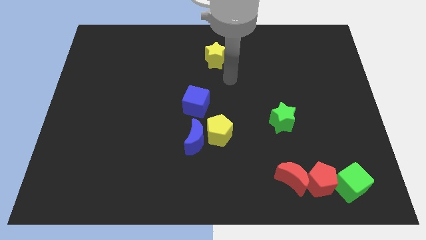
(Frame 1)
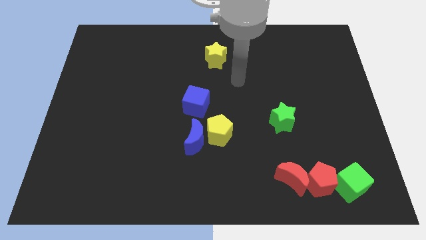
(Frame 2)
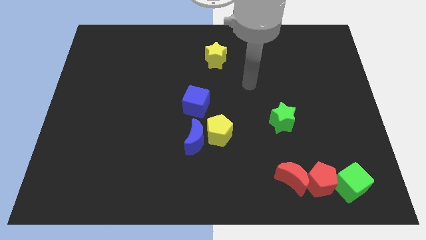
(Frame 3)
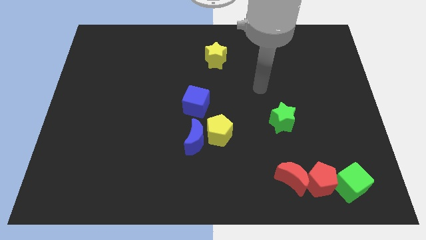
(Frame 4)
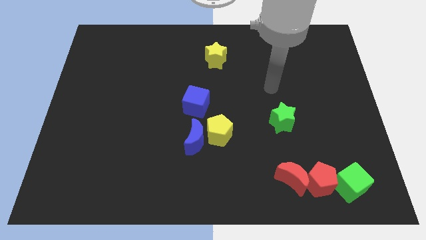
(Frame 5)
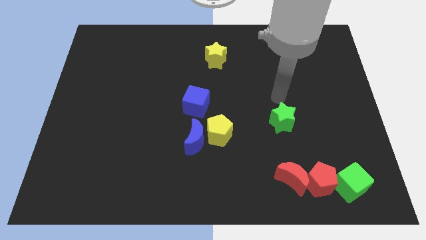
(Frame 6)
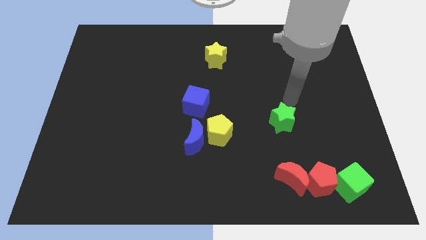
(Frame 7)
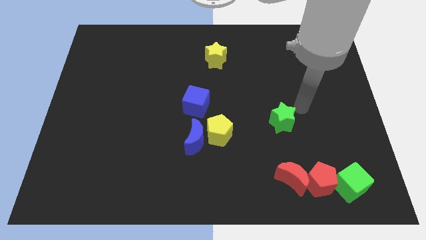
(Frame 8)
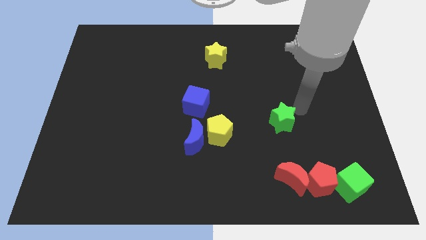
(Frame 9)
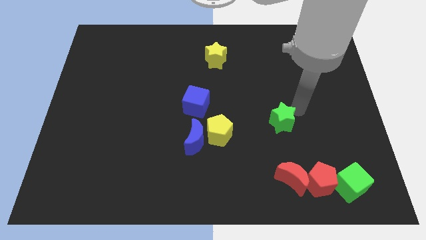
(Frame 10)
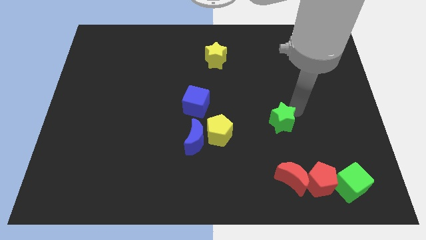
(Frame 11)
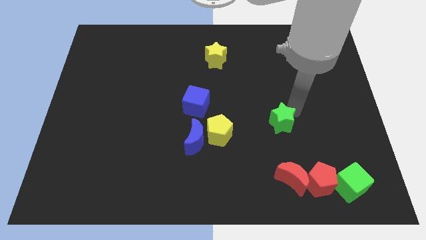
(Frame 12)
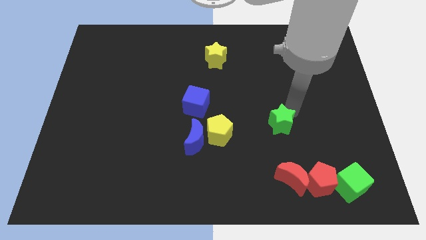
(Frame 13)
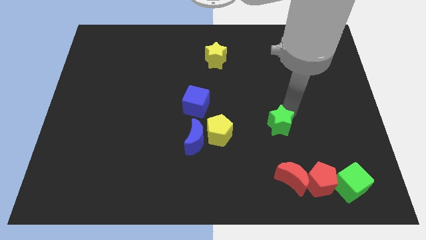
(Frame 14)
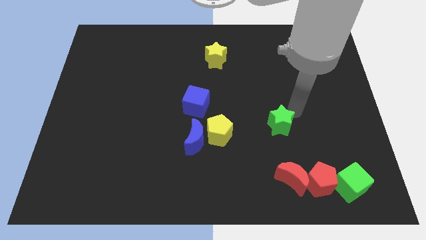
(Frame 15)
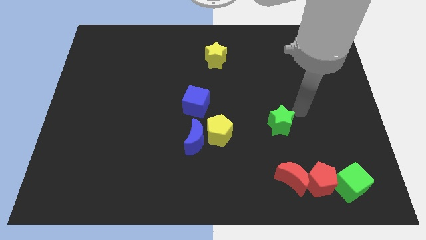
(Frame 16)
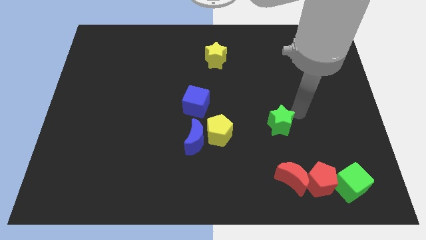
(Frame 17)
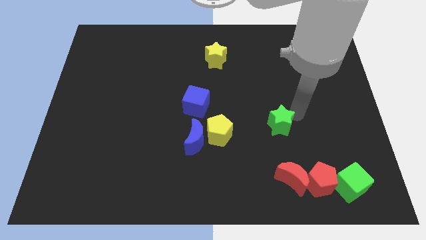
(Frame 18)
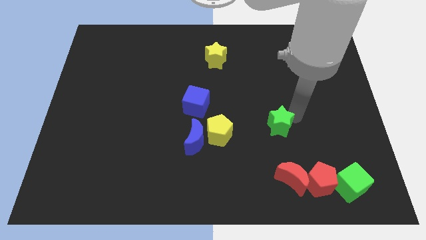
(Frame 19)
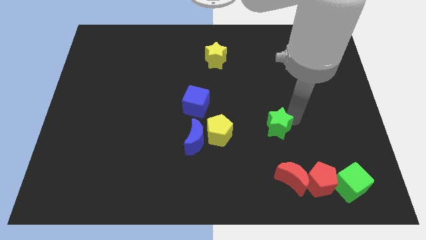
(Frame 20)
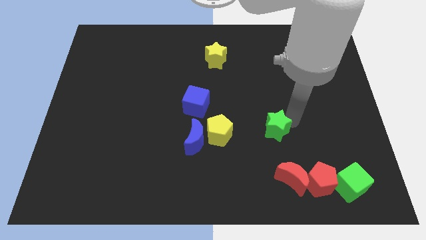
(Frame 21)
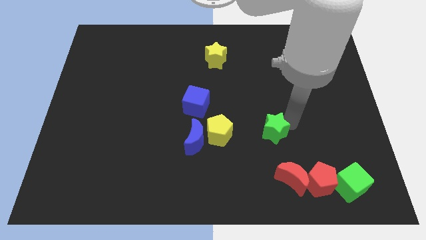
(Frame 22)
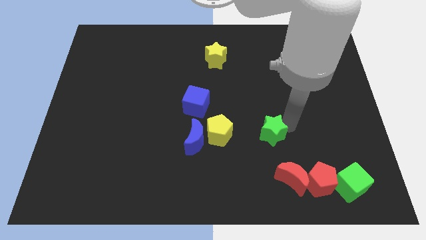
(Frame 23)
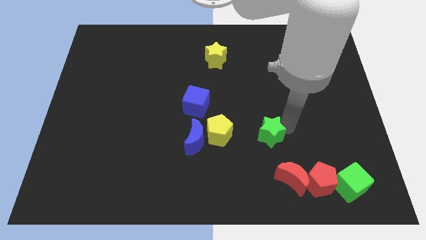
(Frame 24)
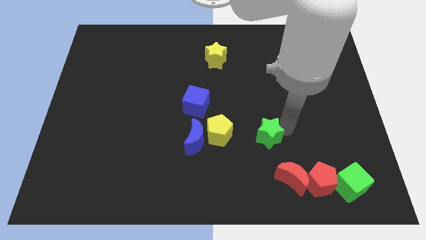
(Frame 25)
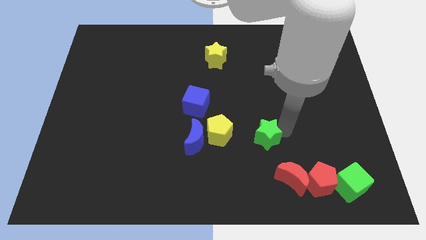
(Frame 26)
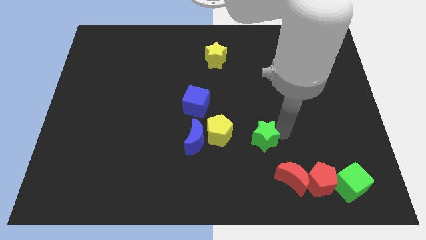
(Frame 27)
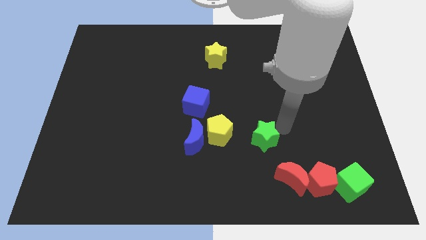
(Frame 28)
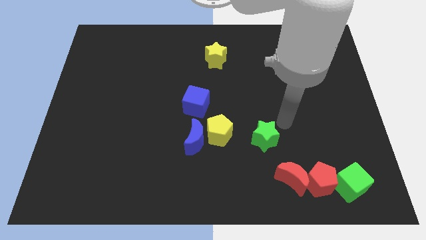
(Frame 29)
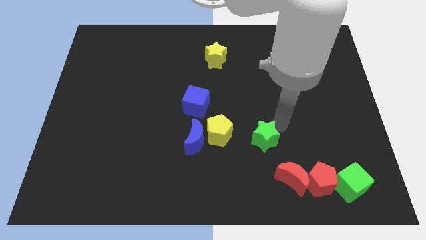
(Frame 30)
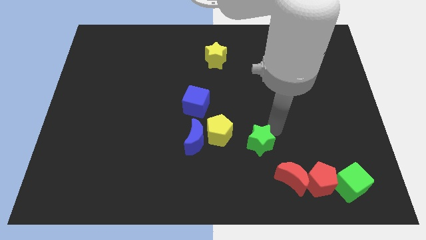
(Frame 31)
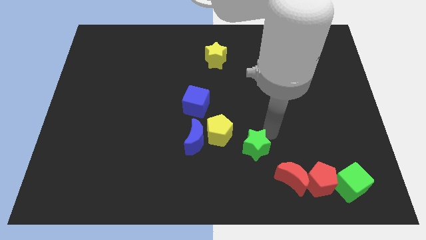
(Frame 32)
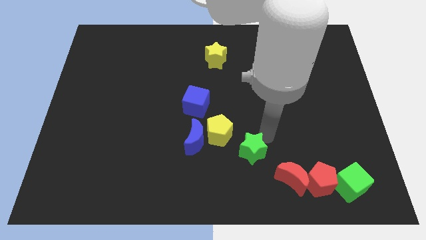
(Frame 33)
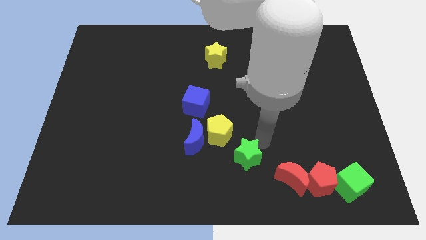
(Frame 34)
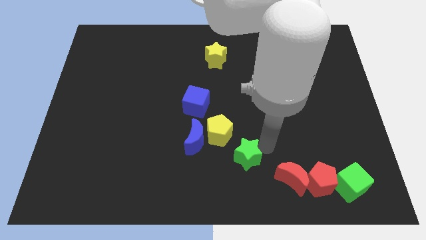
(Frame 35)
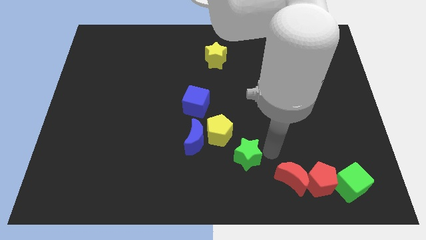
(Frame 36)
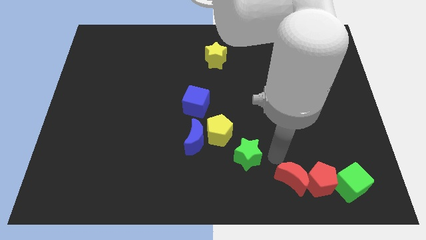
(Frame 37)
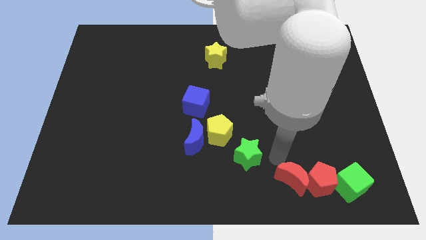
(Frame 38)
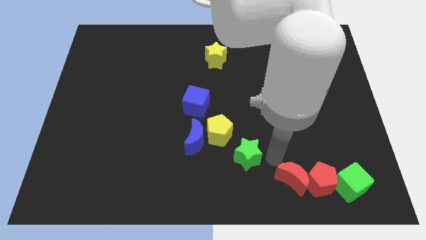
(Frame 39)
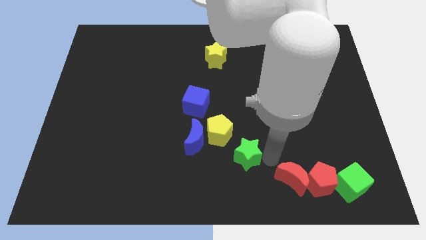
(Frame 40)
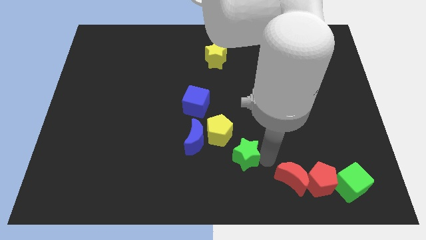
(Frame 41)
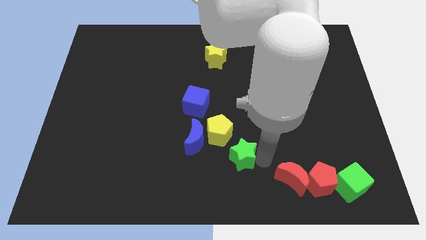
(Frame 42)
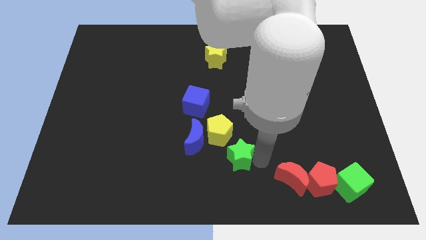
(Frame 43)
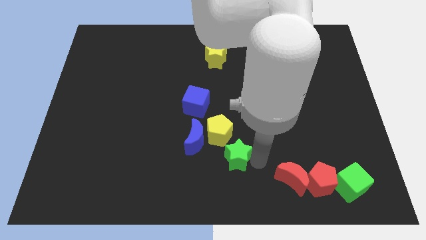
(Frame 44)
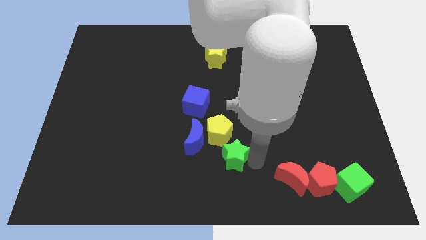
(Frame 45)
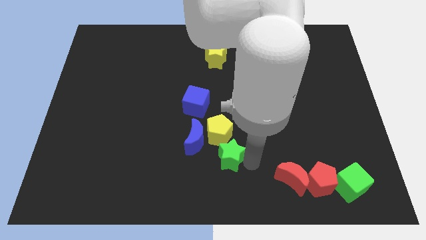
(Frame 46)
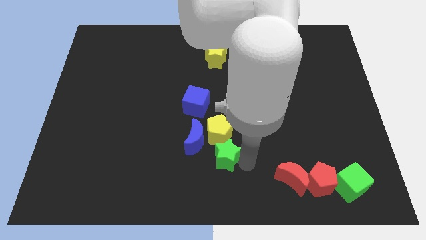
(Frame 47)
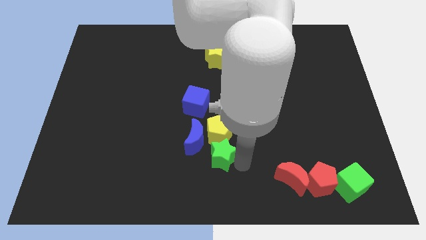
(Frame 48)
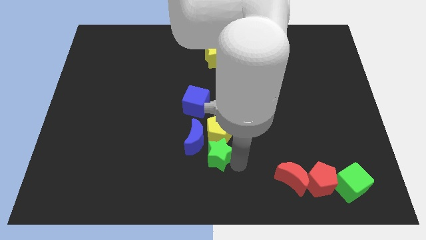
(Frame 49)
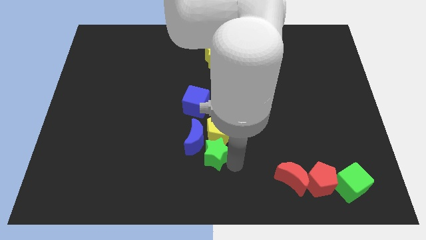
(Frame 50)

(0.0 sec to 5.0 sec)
push the green star close to the blue moon

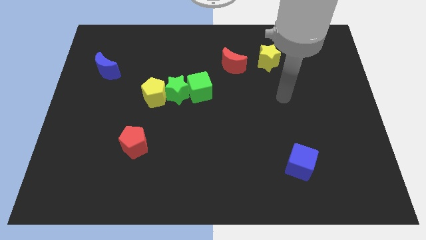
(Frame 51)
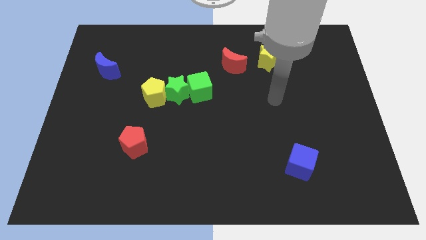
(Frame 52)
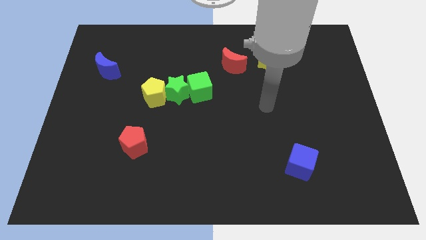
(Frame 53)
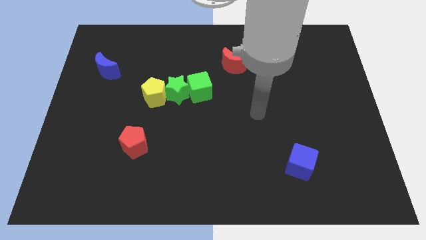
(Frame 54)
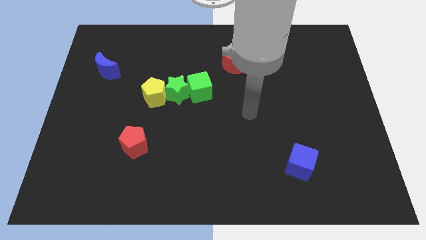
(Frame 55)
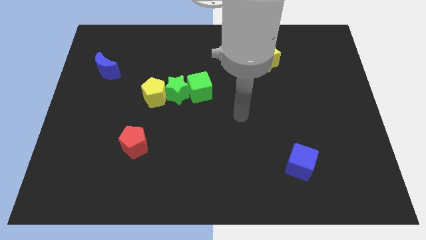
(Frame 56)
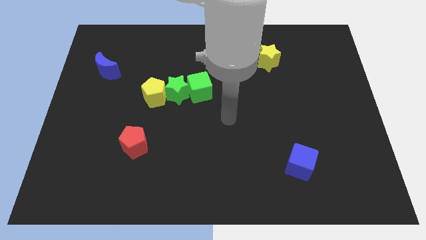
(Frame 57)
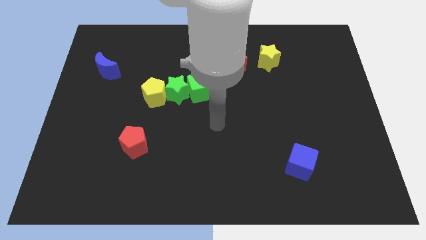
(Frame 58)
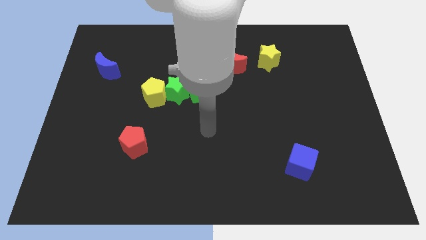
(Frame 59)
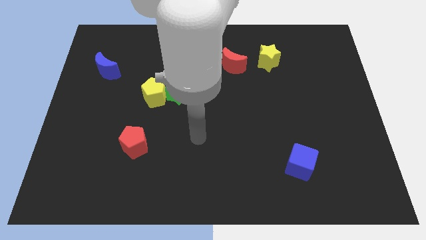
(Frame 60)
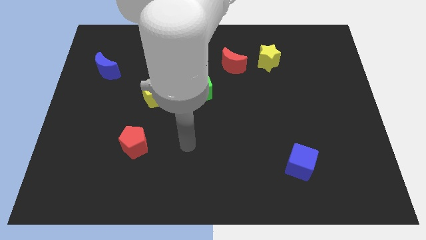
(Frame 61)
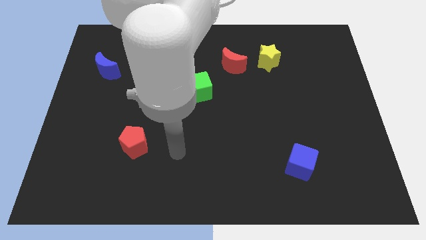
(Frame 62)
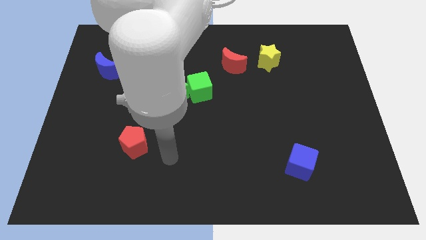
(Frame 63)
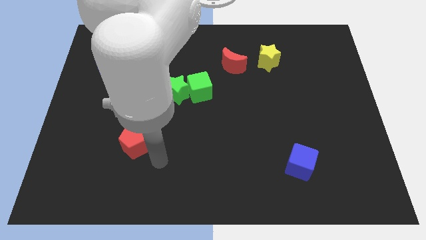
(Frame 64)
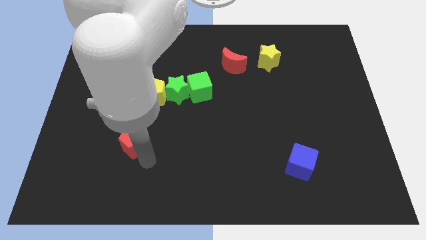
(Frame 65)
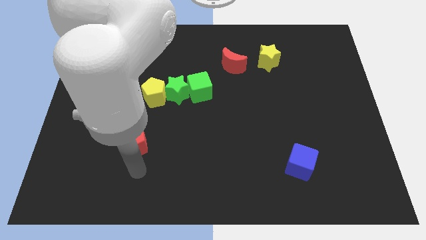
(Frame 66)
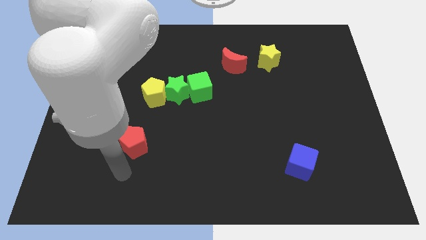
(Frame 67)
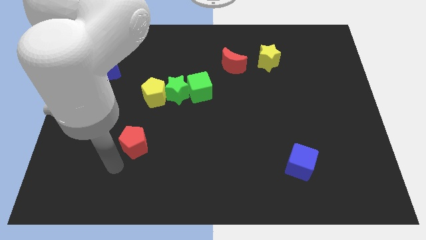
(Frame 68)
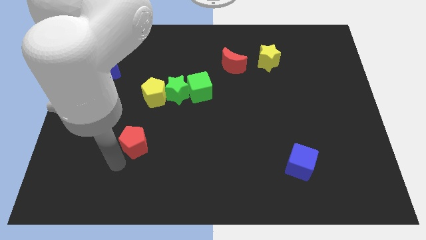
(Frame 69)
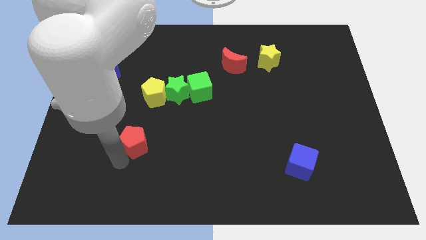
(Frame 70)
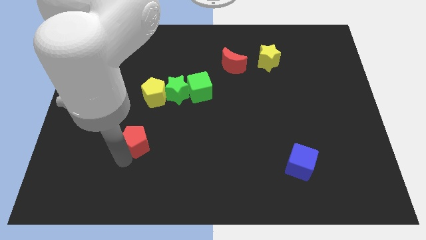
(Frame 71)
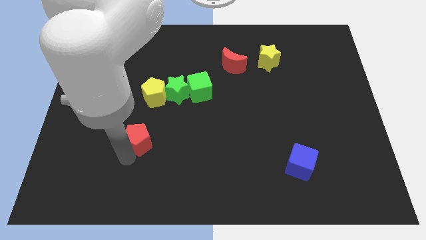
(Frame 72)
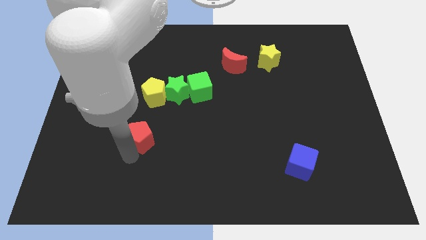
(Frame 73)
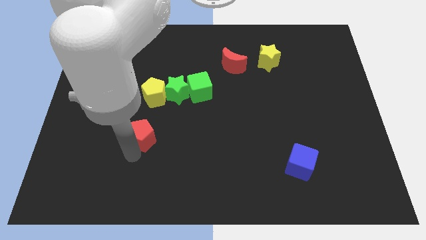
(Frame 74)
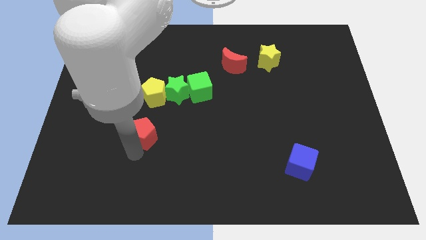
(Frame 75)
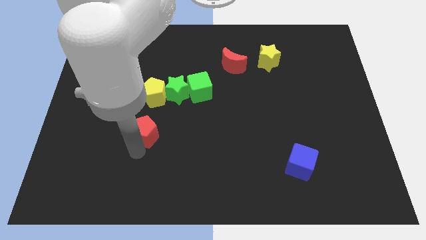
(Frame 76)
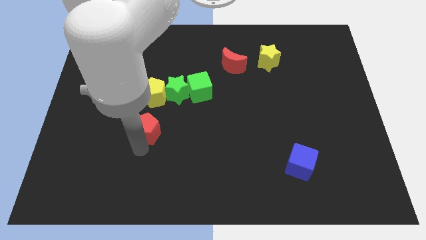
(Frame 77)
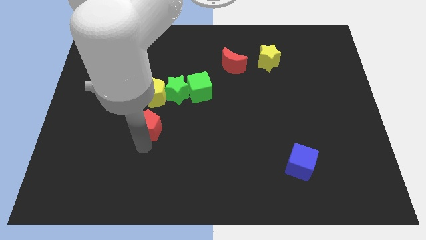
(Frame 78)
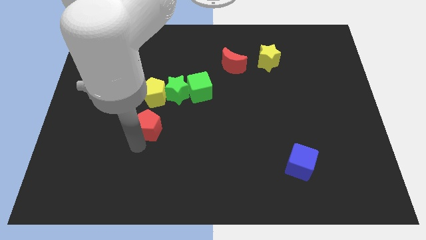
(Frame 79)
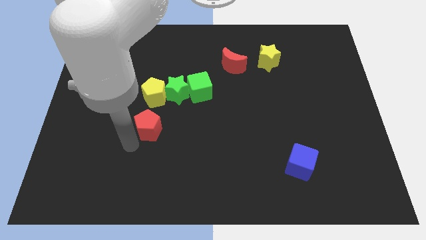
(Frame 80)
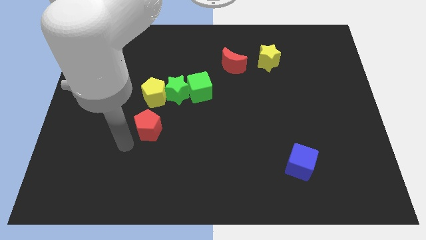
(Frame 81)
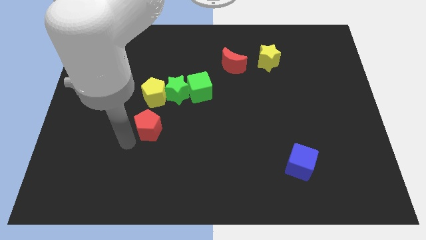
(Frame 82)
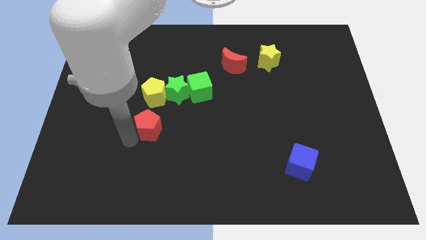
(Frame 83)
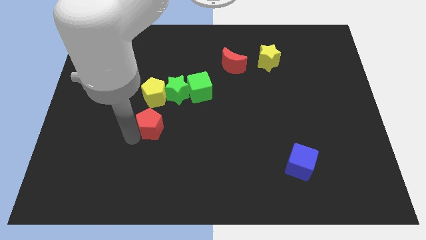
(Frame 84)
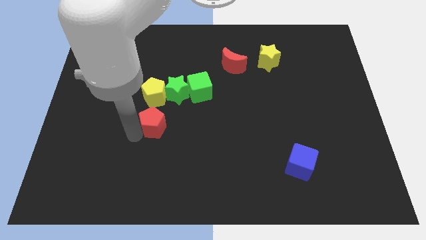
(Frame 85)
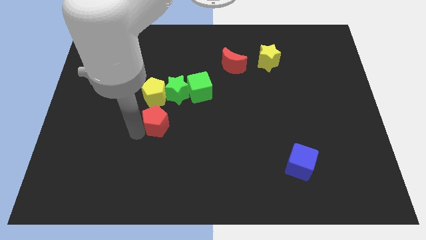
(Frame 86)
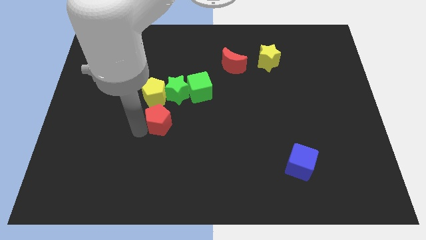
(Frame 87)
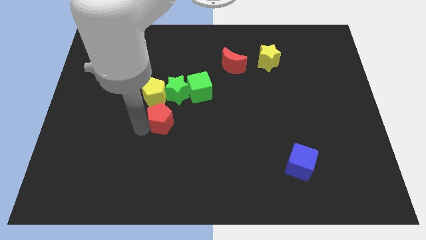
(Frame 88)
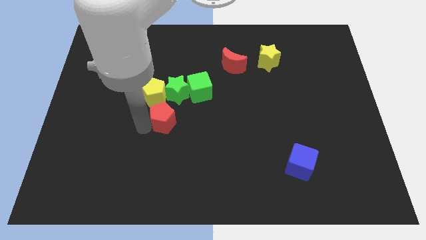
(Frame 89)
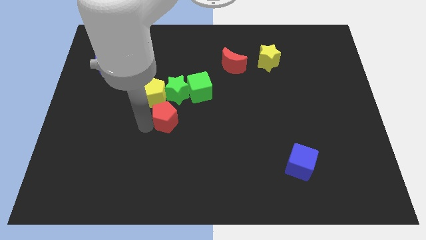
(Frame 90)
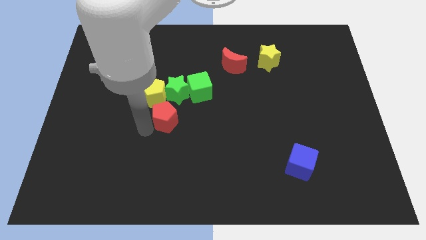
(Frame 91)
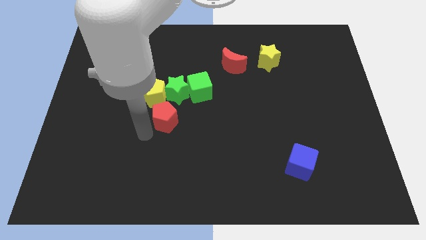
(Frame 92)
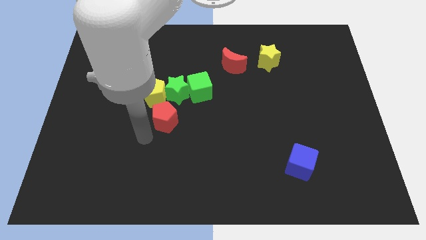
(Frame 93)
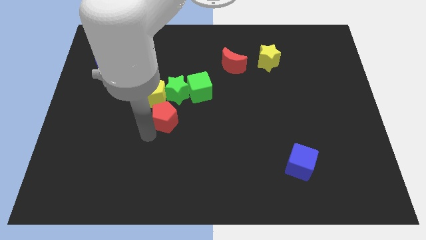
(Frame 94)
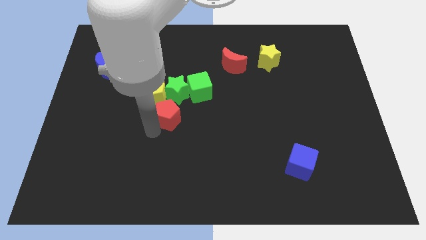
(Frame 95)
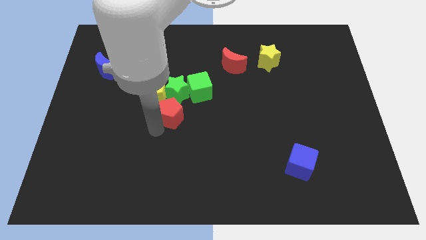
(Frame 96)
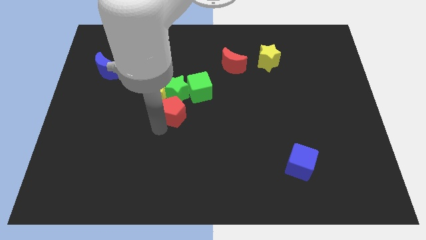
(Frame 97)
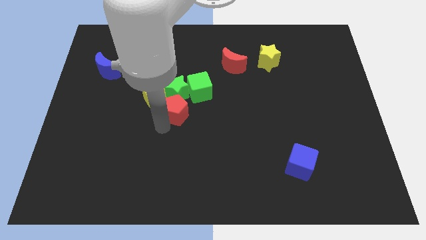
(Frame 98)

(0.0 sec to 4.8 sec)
slide the red pentagon next to the green star
